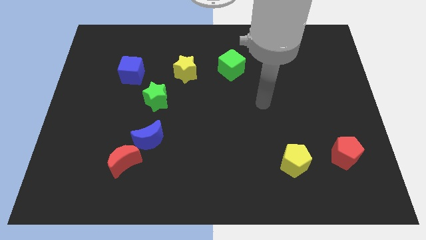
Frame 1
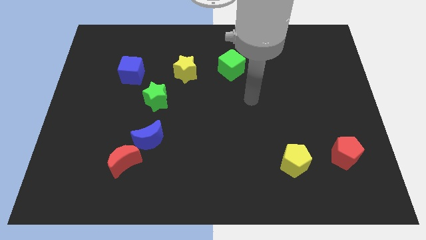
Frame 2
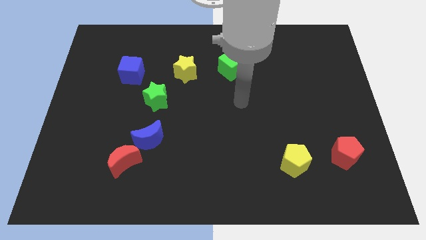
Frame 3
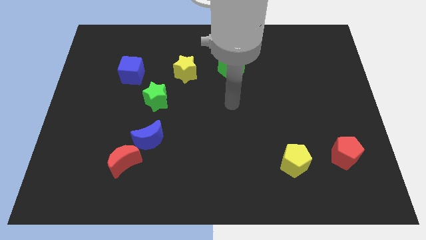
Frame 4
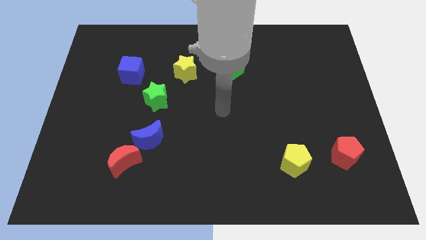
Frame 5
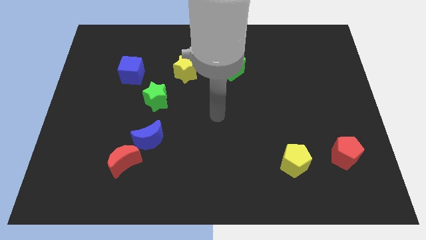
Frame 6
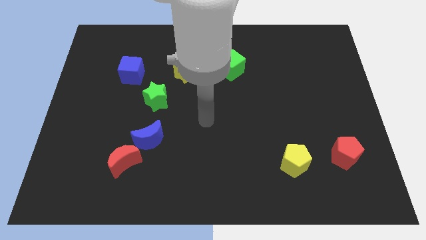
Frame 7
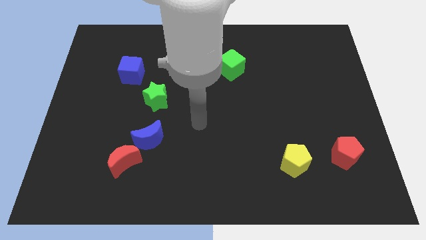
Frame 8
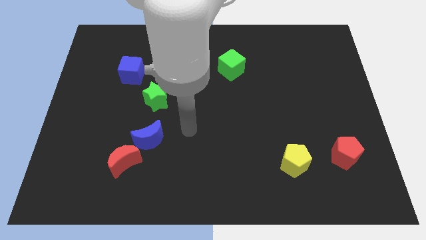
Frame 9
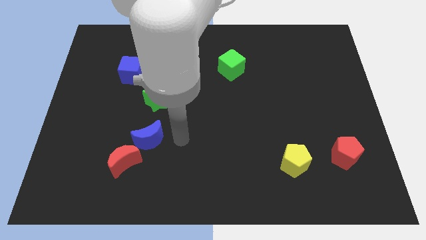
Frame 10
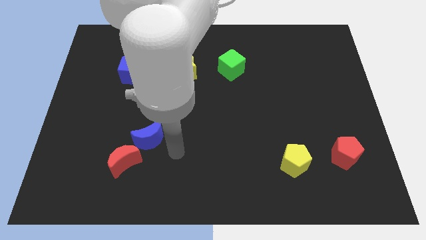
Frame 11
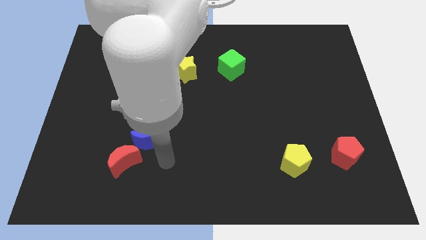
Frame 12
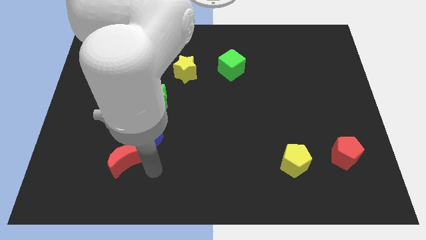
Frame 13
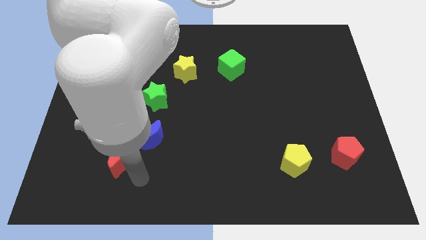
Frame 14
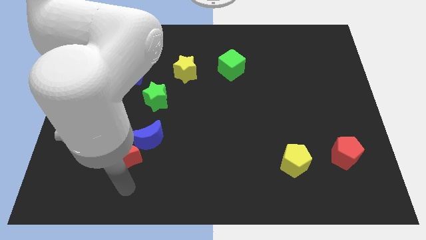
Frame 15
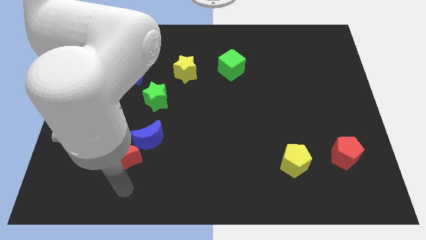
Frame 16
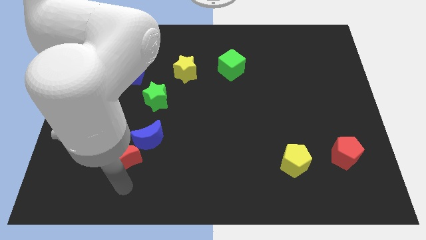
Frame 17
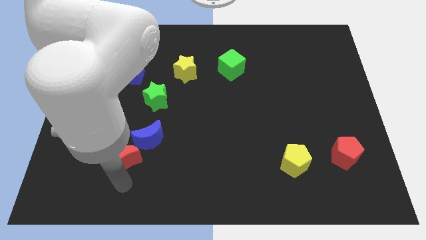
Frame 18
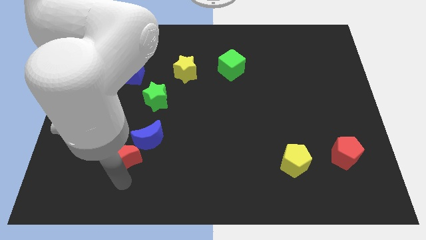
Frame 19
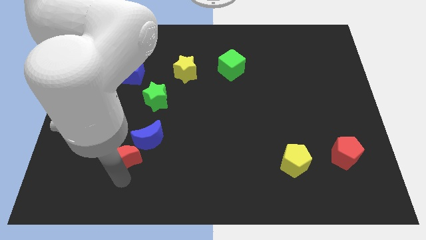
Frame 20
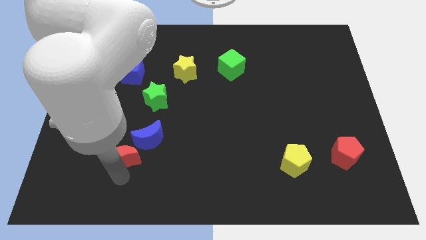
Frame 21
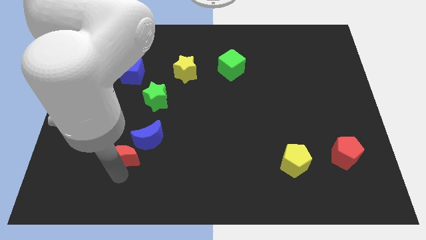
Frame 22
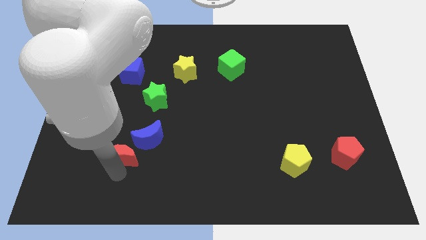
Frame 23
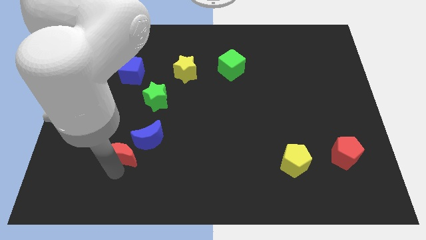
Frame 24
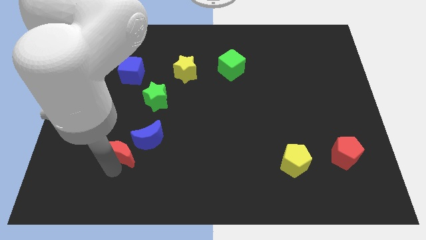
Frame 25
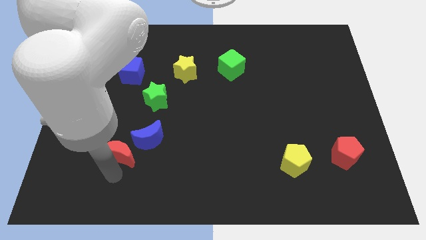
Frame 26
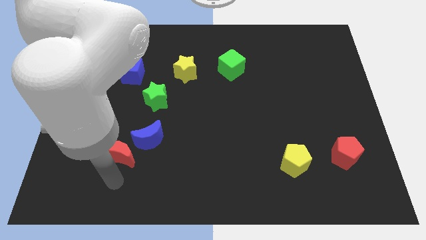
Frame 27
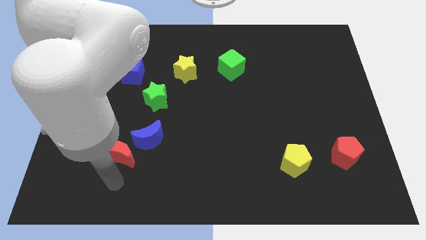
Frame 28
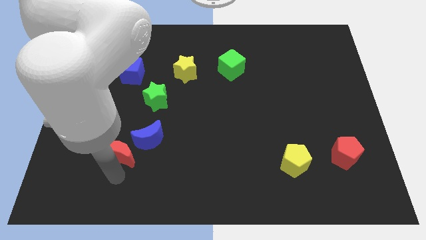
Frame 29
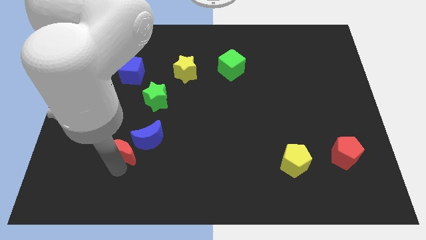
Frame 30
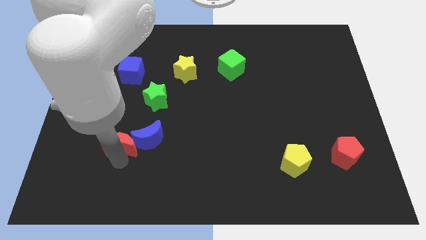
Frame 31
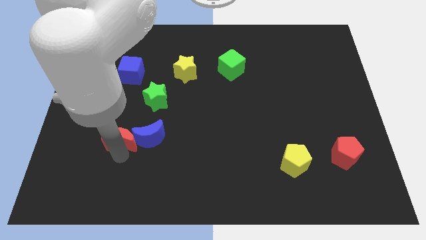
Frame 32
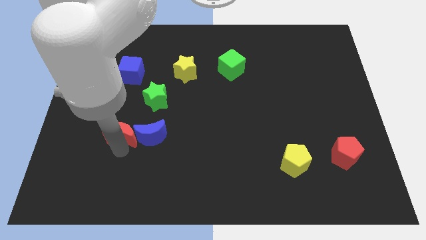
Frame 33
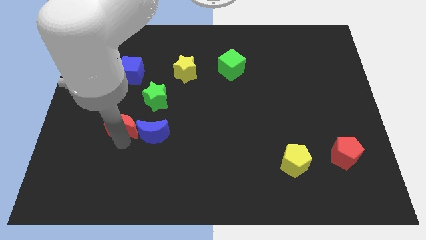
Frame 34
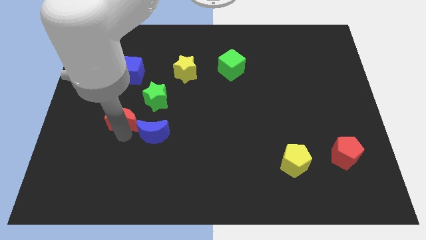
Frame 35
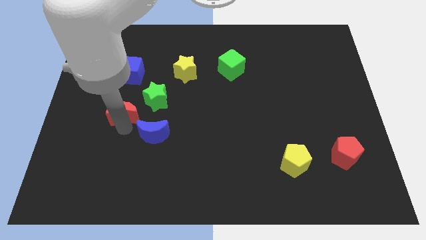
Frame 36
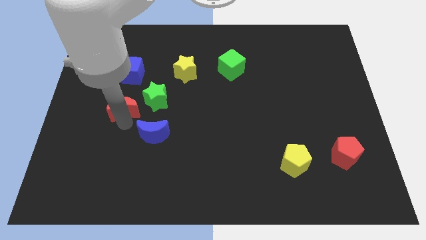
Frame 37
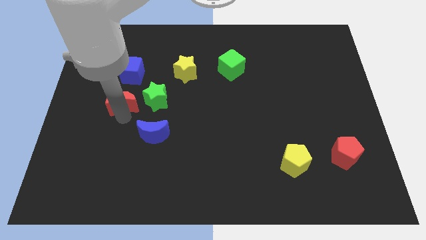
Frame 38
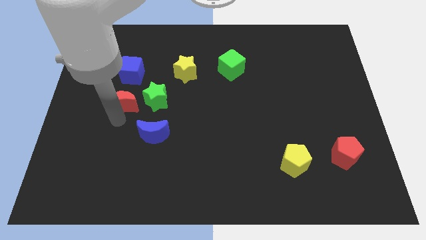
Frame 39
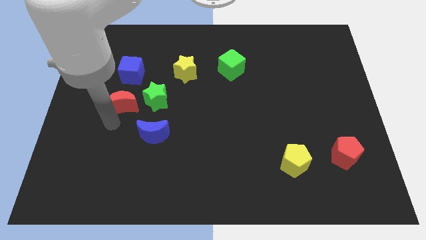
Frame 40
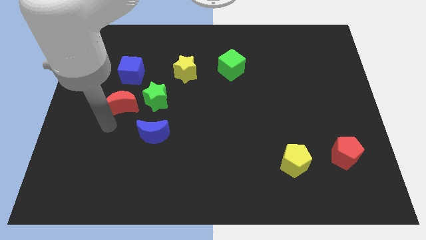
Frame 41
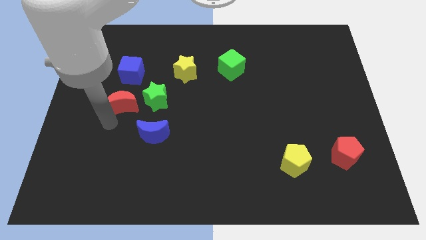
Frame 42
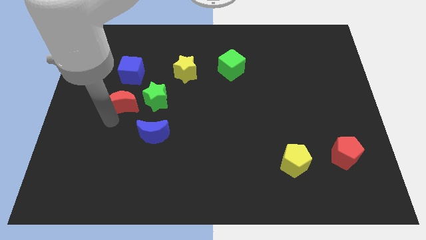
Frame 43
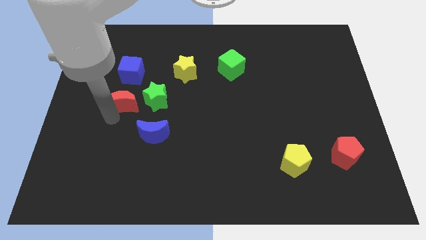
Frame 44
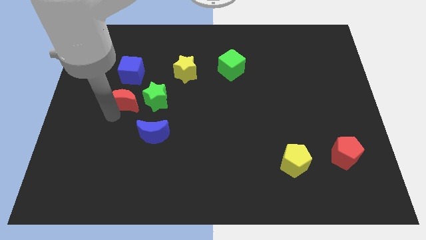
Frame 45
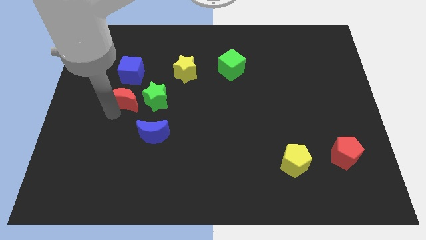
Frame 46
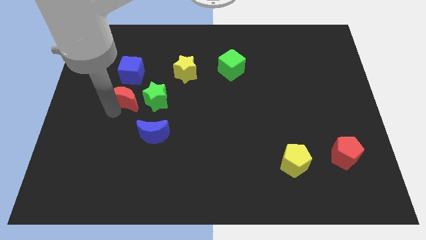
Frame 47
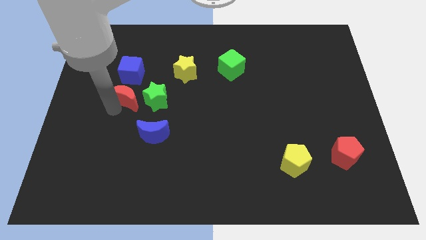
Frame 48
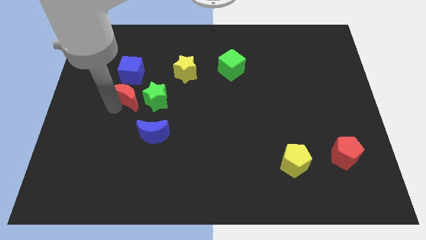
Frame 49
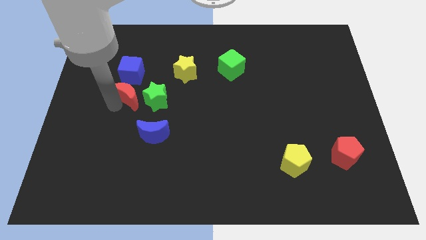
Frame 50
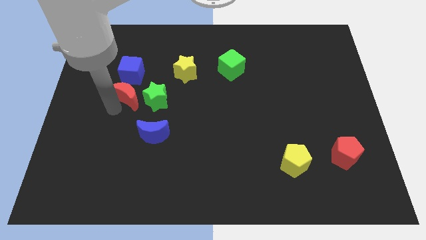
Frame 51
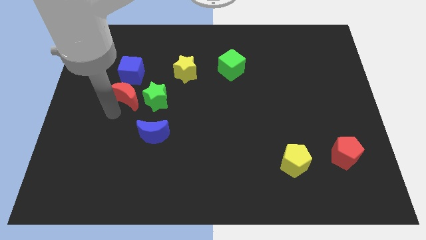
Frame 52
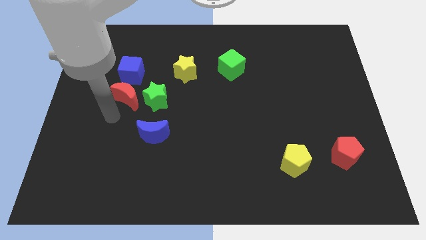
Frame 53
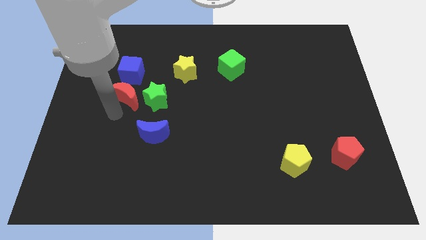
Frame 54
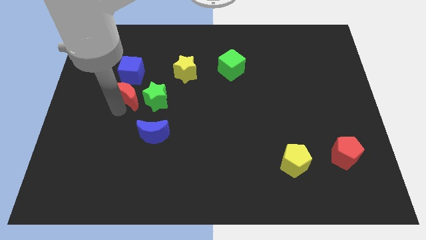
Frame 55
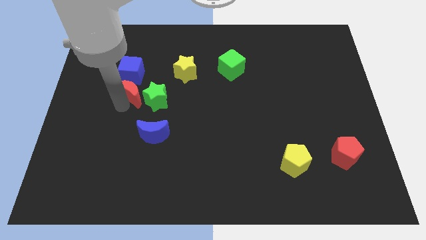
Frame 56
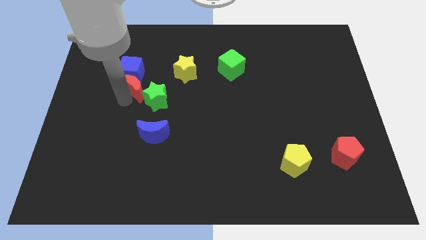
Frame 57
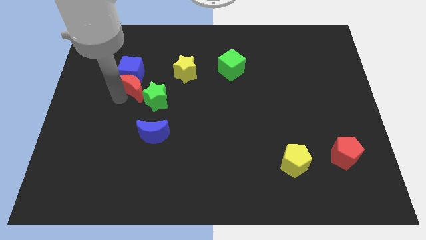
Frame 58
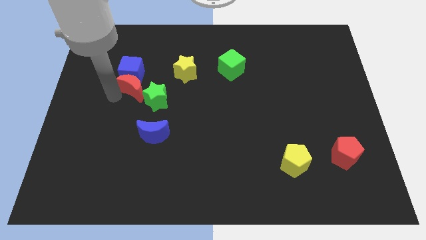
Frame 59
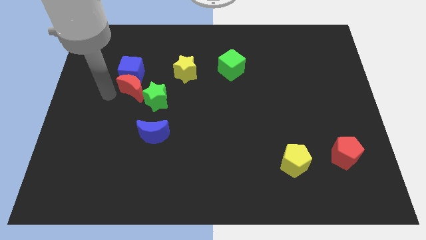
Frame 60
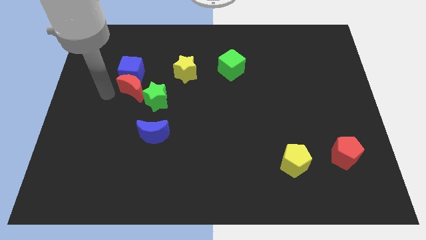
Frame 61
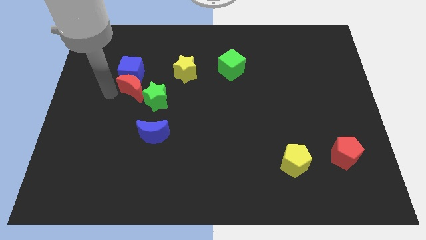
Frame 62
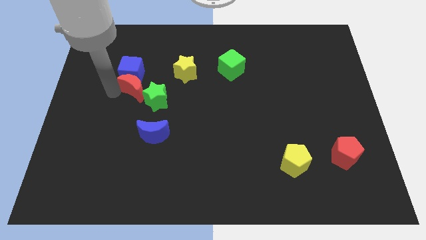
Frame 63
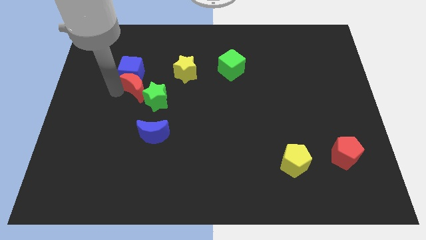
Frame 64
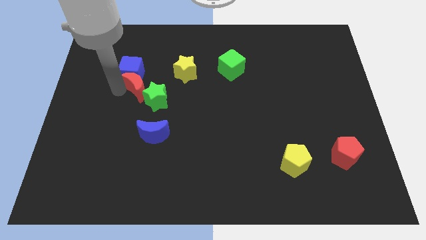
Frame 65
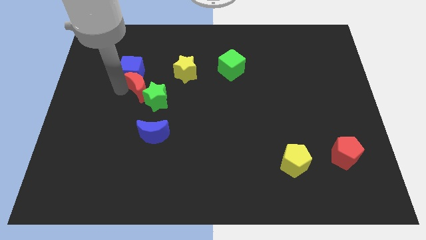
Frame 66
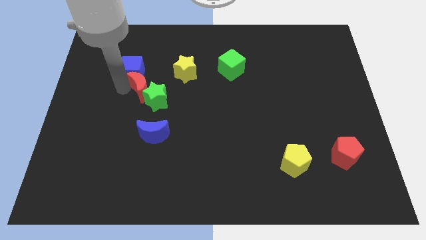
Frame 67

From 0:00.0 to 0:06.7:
put the red moon above the blue moon

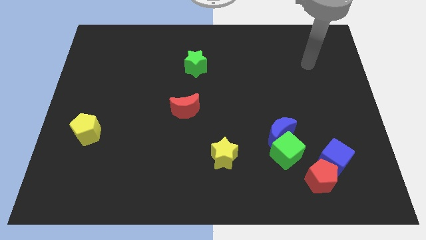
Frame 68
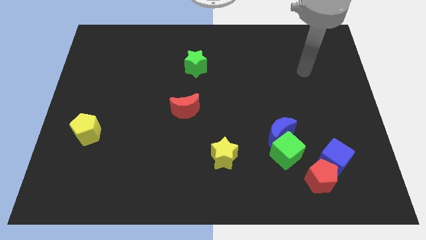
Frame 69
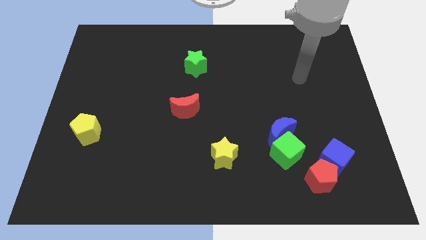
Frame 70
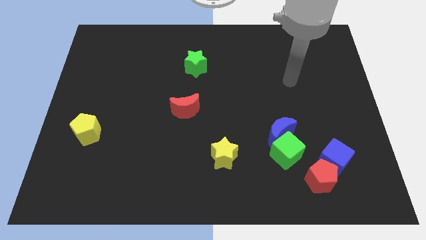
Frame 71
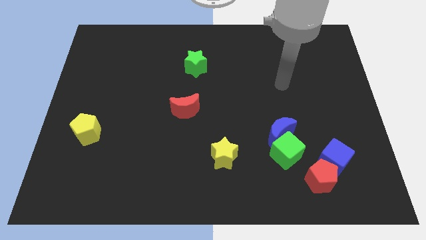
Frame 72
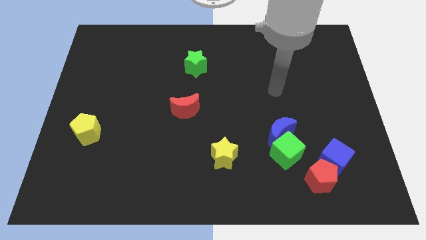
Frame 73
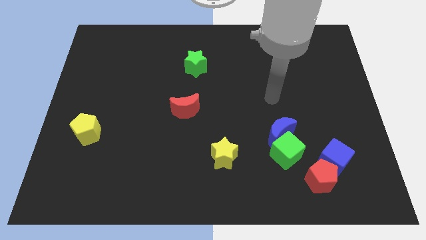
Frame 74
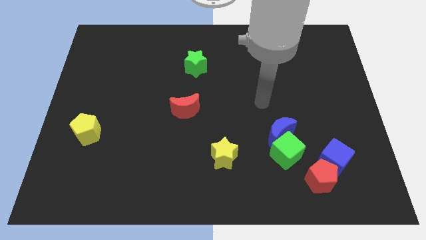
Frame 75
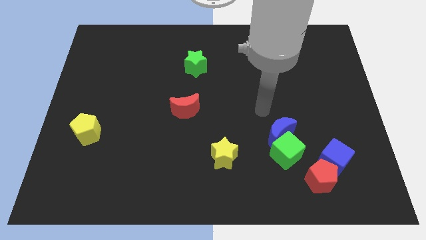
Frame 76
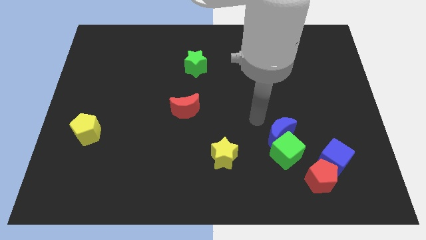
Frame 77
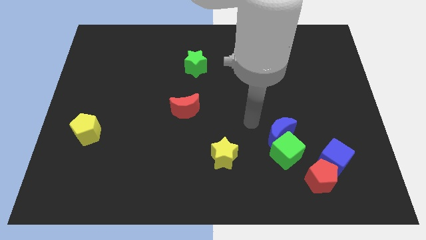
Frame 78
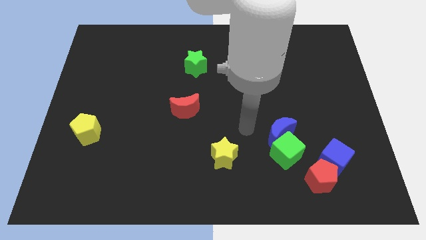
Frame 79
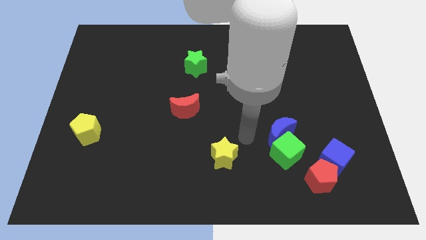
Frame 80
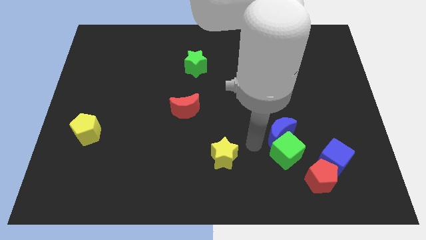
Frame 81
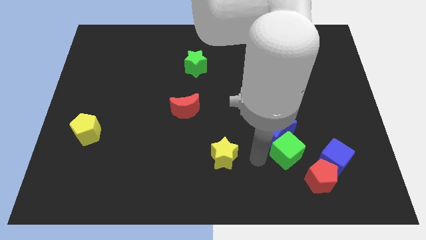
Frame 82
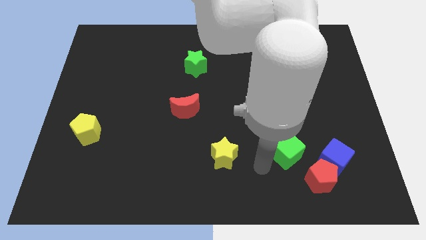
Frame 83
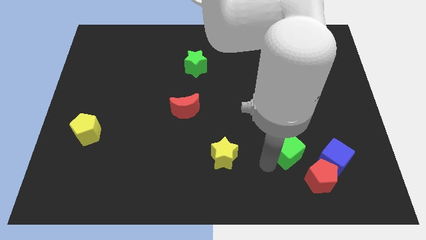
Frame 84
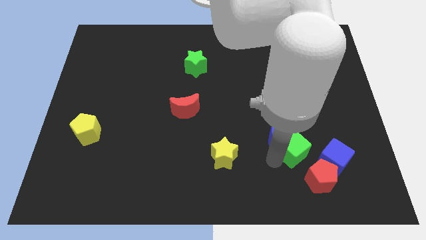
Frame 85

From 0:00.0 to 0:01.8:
move the green cube above the red pentagon

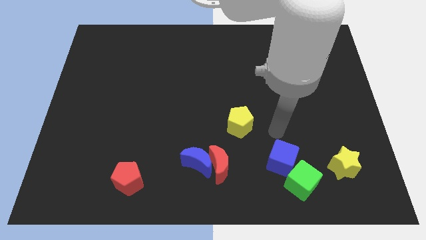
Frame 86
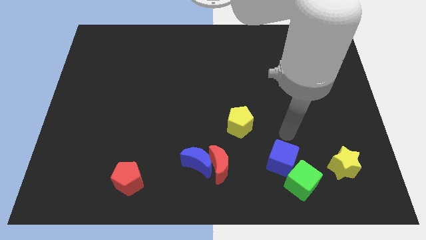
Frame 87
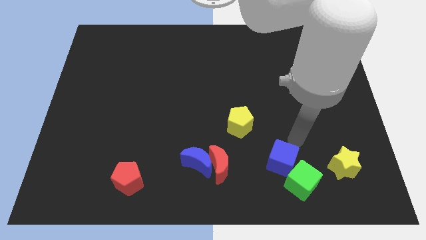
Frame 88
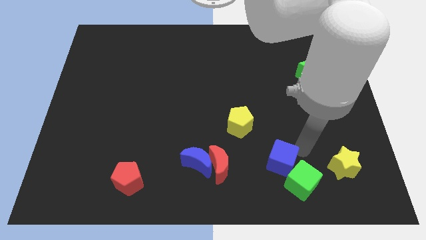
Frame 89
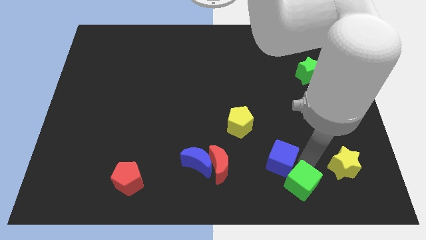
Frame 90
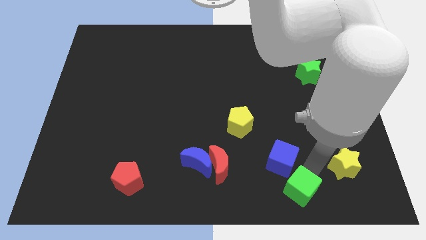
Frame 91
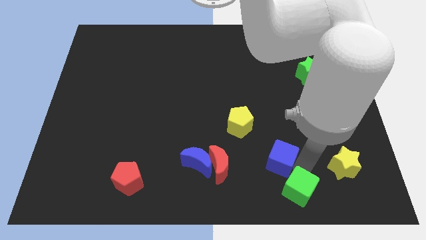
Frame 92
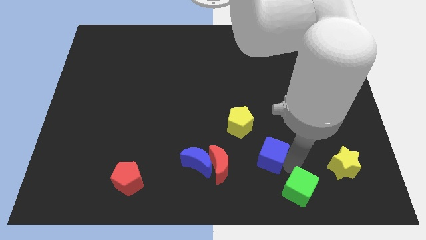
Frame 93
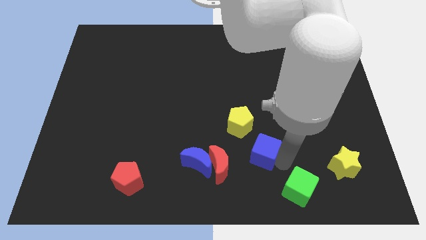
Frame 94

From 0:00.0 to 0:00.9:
slide the blue cube to the top right of the red moon
